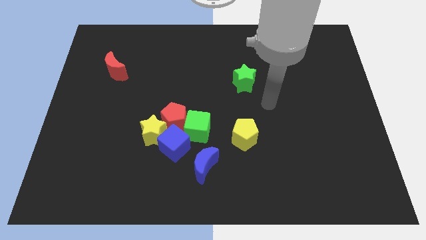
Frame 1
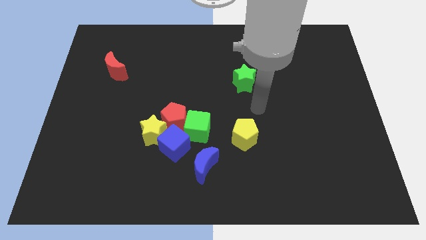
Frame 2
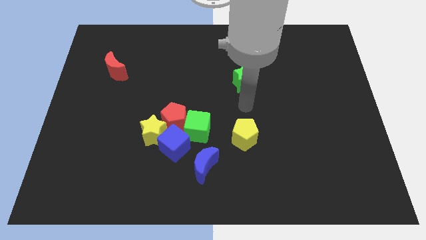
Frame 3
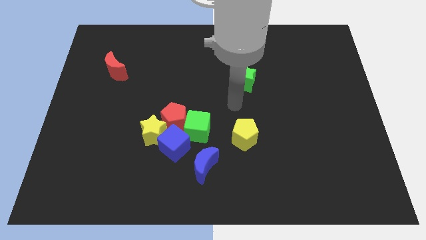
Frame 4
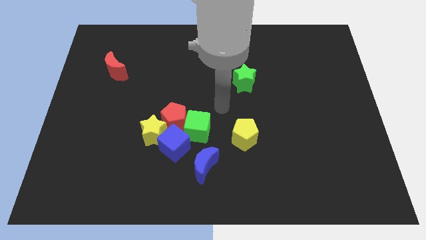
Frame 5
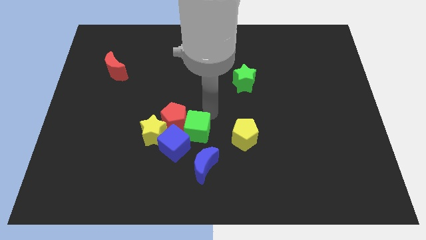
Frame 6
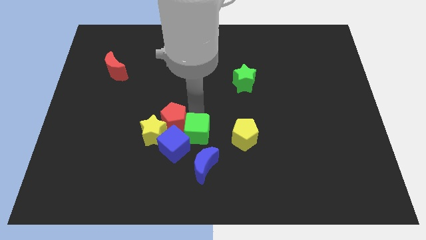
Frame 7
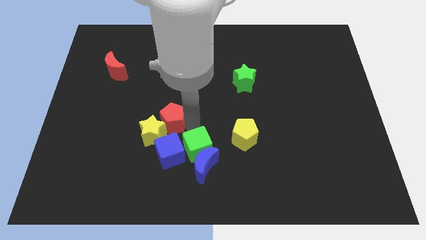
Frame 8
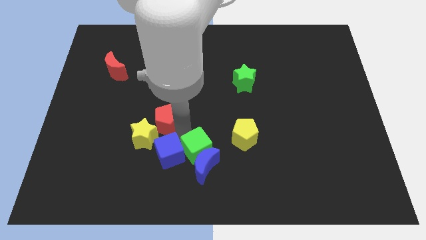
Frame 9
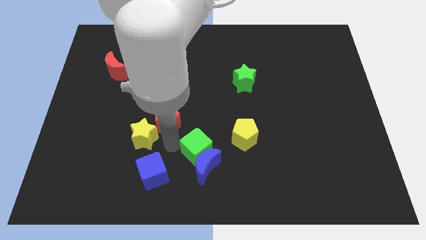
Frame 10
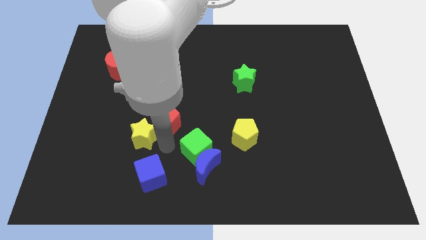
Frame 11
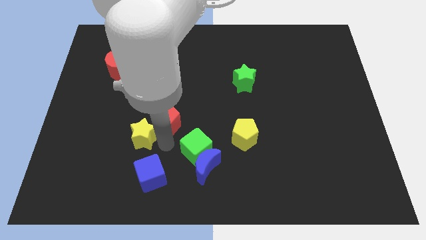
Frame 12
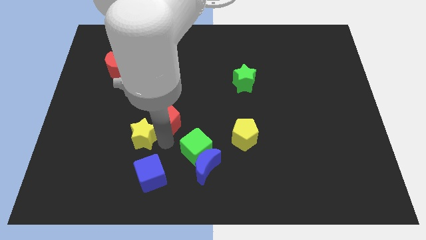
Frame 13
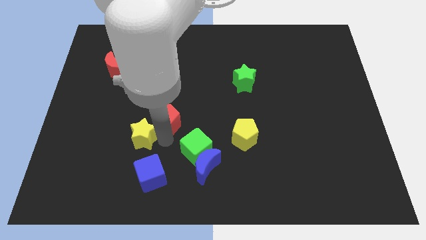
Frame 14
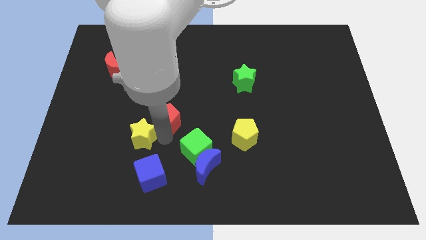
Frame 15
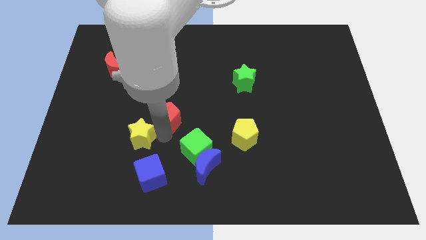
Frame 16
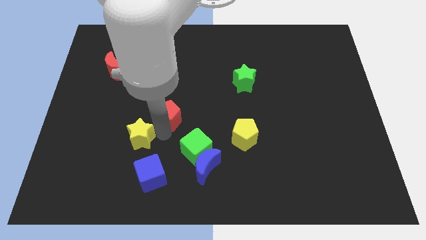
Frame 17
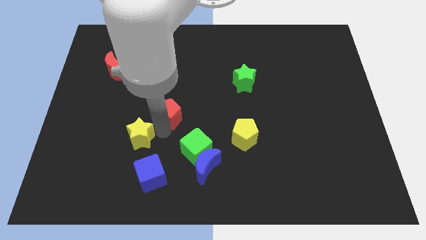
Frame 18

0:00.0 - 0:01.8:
separate the red pentagon from the green cube, yellow star, and blue cube

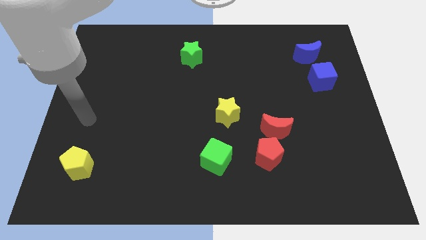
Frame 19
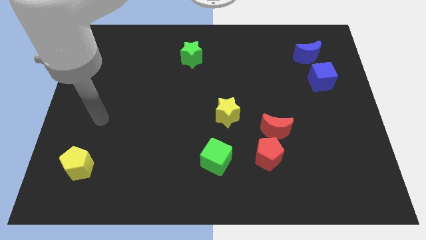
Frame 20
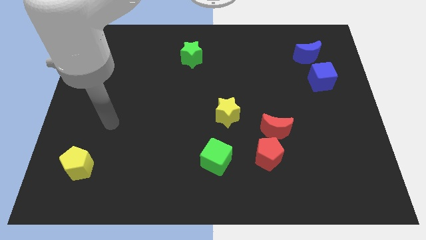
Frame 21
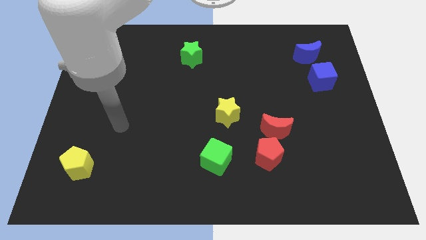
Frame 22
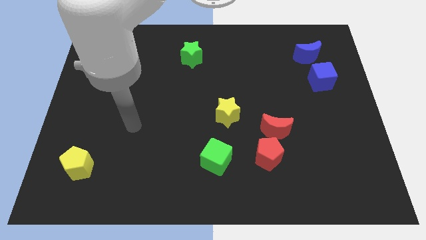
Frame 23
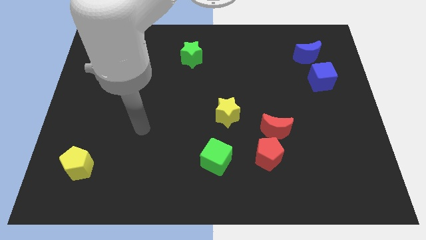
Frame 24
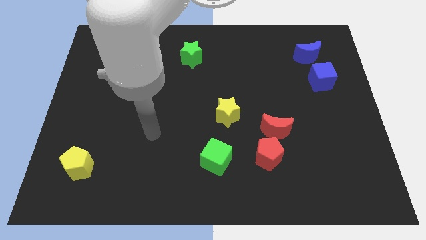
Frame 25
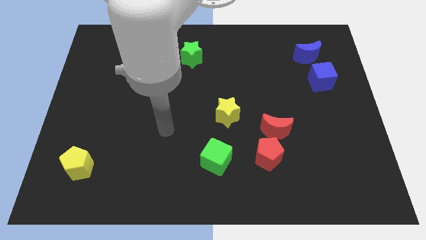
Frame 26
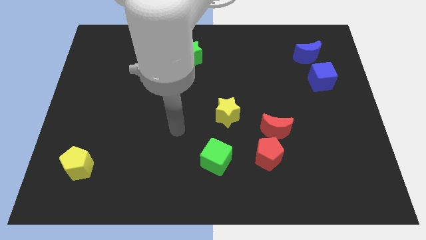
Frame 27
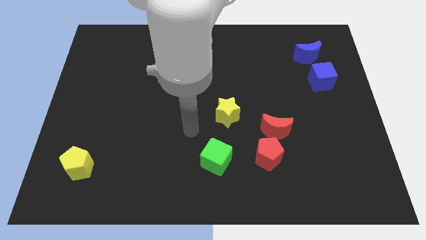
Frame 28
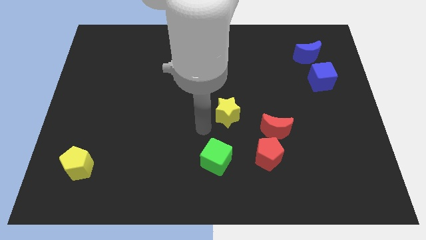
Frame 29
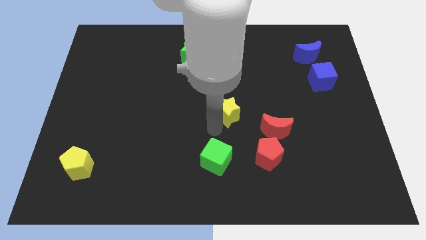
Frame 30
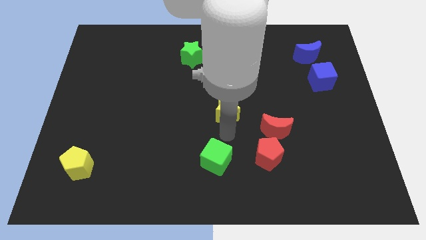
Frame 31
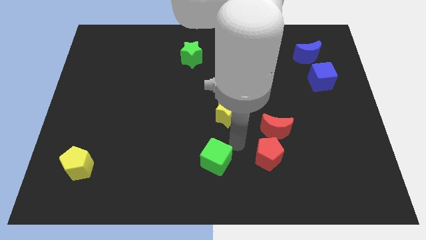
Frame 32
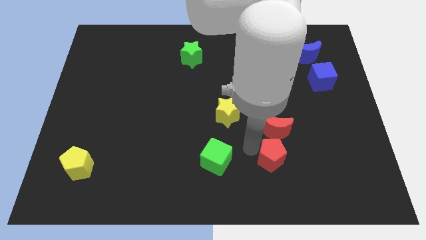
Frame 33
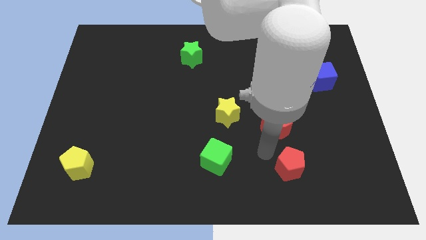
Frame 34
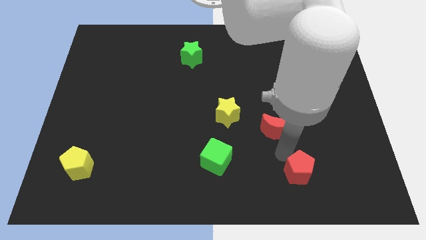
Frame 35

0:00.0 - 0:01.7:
separate the red moon from the red pentagon

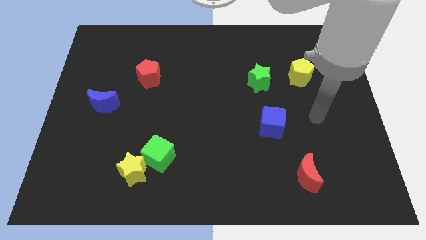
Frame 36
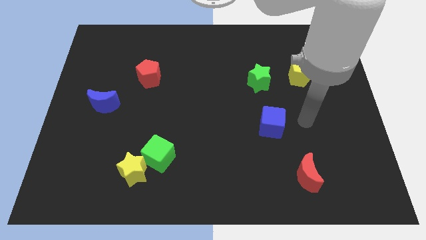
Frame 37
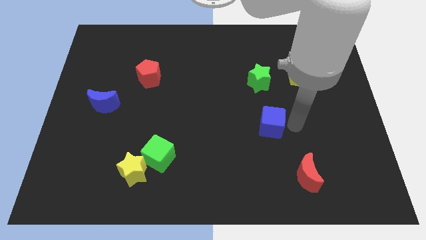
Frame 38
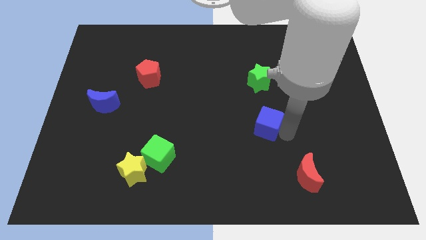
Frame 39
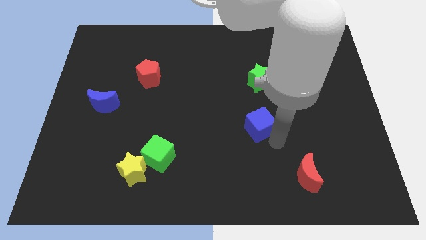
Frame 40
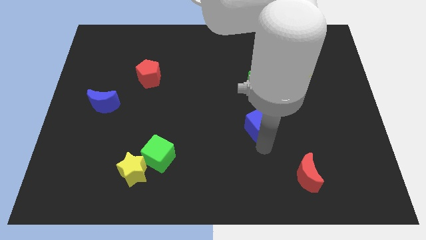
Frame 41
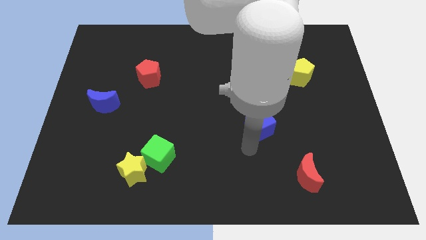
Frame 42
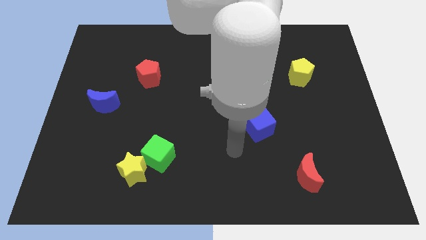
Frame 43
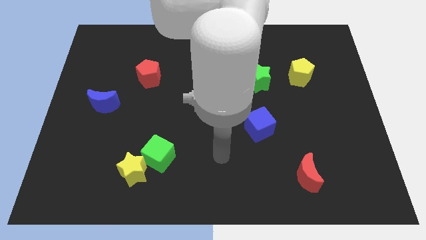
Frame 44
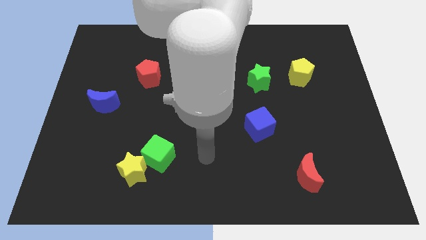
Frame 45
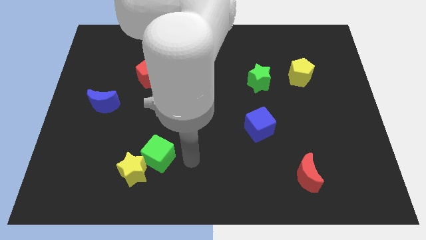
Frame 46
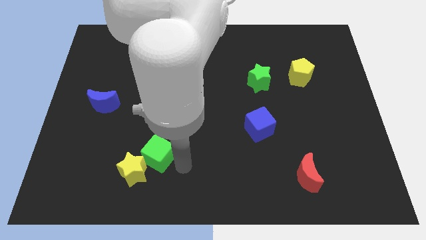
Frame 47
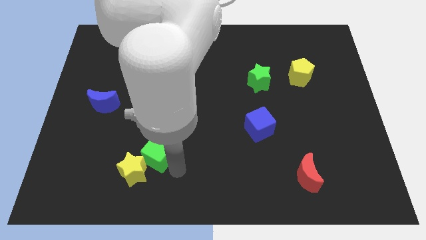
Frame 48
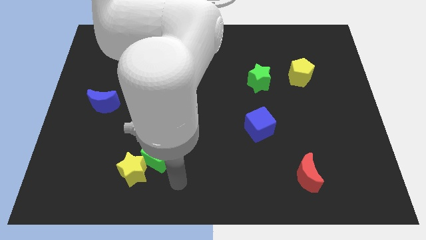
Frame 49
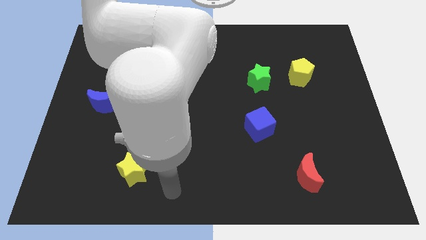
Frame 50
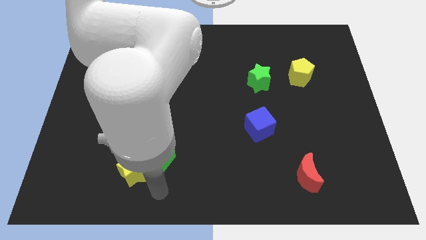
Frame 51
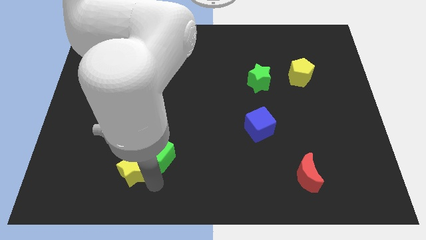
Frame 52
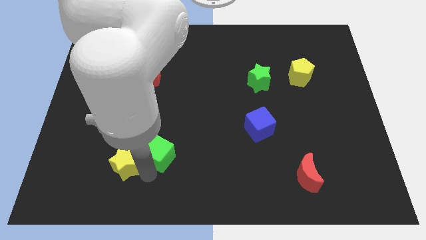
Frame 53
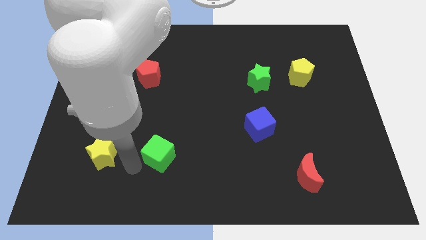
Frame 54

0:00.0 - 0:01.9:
move the green cube away from the yellow star

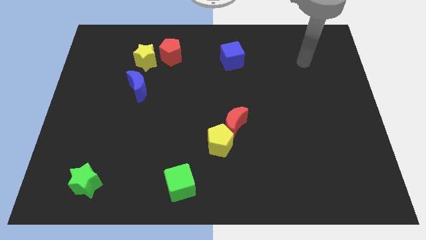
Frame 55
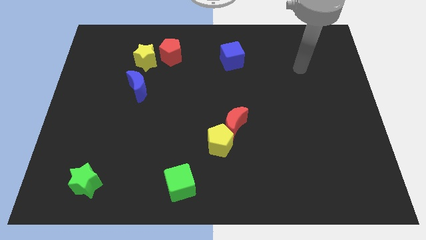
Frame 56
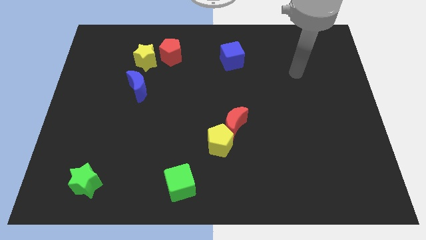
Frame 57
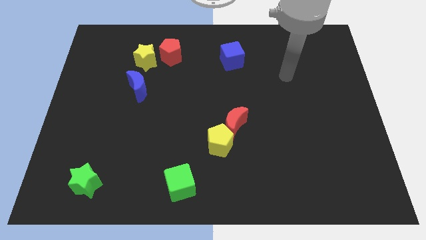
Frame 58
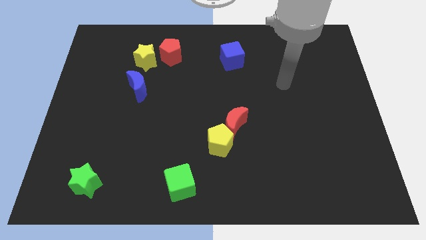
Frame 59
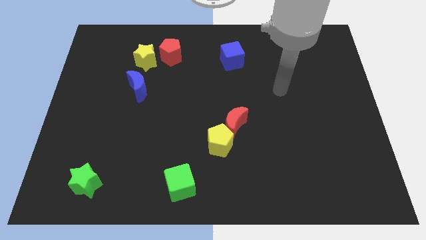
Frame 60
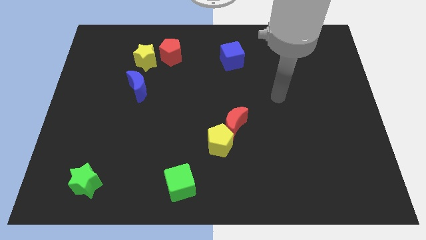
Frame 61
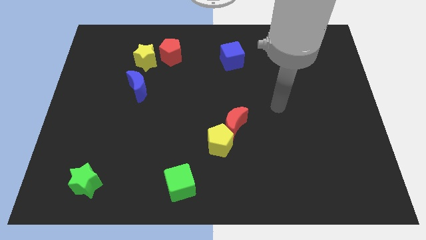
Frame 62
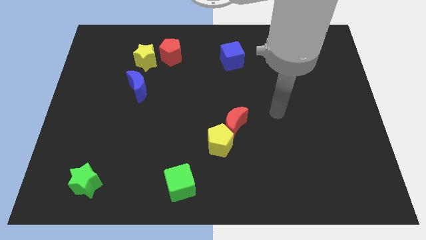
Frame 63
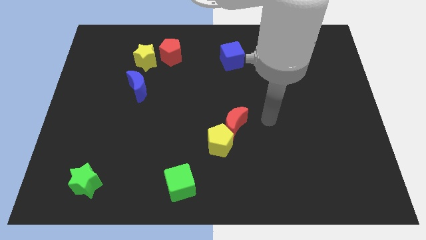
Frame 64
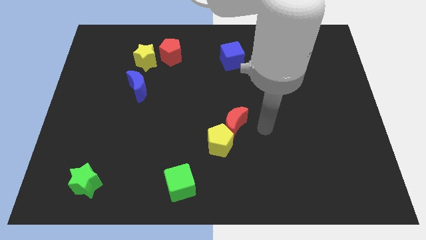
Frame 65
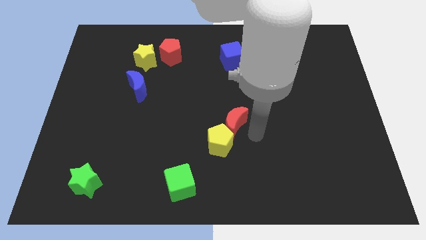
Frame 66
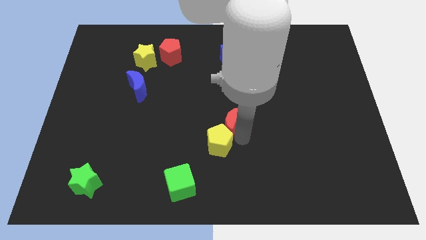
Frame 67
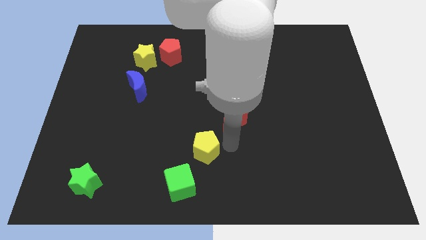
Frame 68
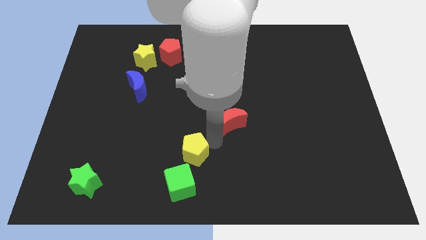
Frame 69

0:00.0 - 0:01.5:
move the red moon away from the yellow pentagon

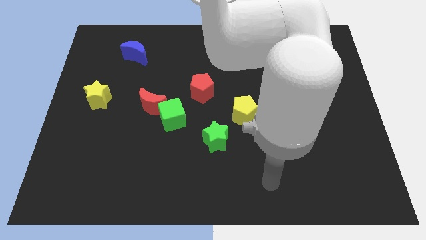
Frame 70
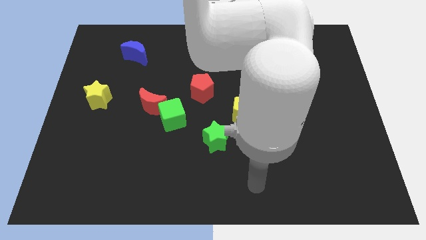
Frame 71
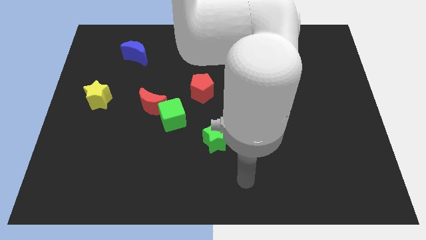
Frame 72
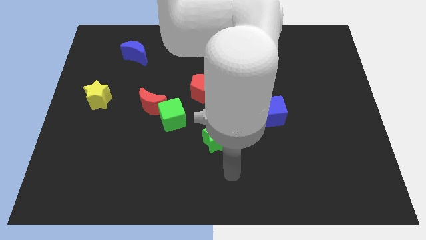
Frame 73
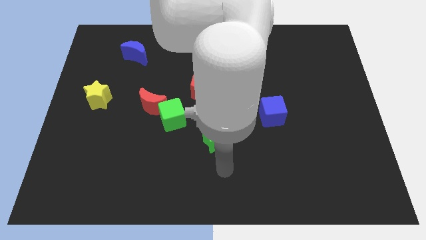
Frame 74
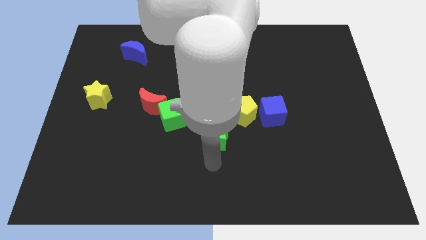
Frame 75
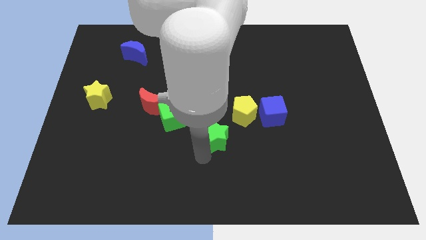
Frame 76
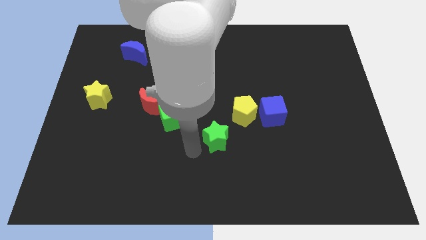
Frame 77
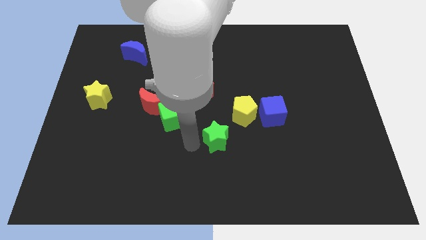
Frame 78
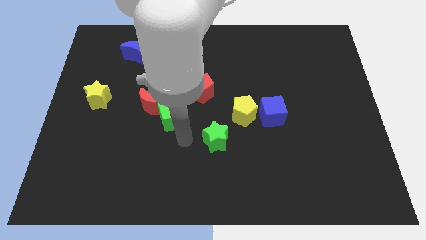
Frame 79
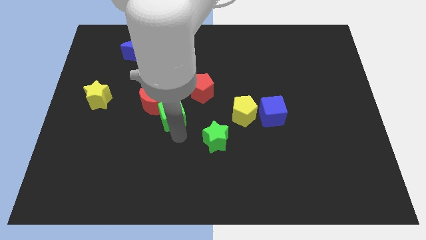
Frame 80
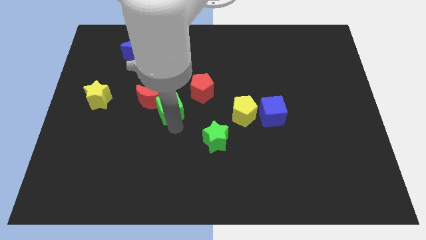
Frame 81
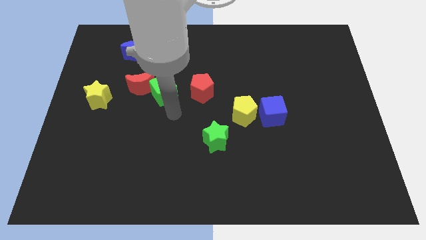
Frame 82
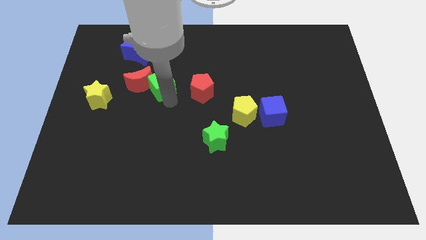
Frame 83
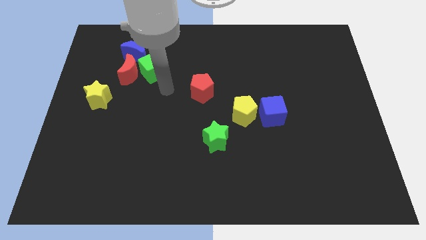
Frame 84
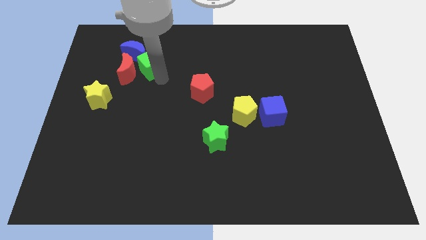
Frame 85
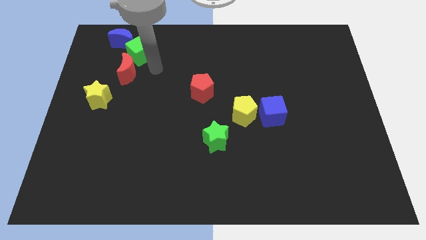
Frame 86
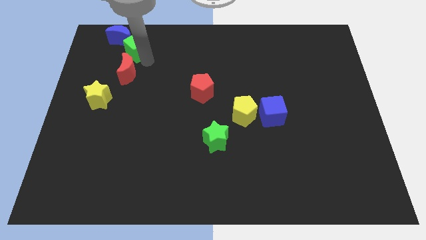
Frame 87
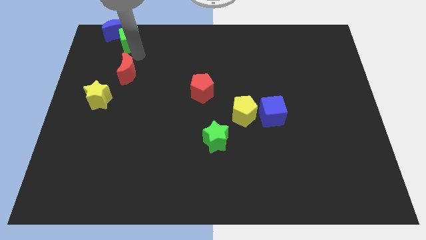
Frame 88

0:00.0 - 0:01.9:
pull the red moon apart from the green cube

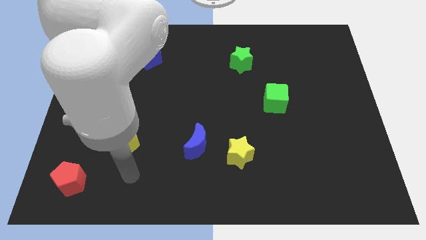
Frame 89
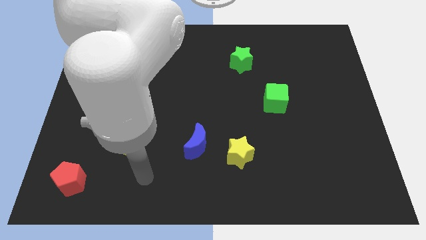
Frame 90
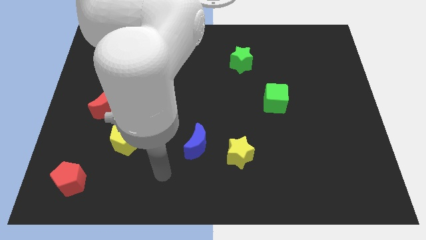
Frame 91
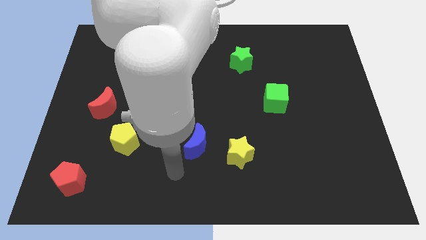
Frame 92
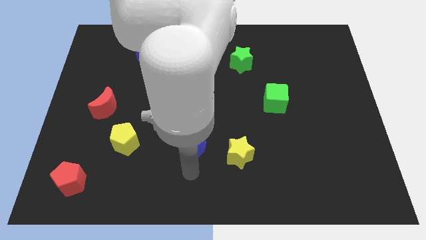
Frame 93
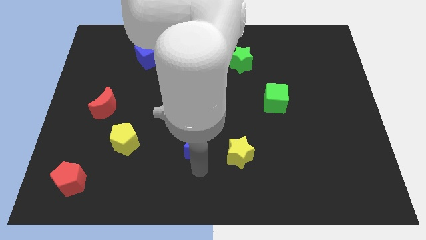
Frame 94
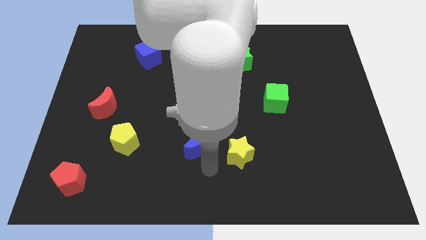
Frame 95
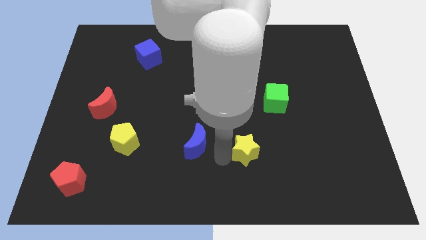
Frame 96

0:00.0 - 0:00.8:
move the blue moon away from the yellow star
